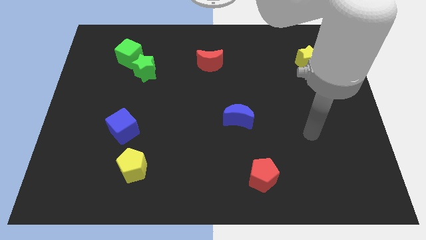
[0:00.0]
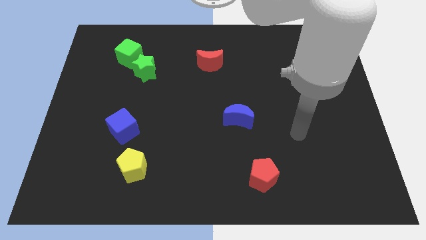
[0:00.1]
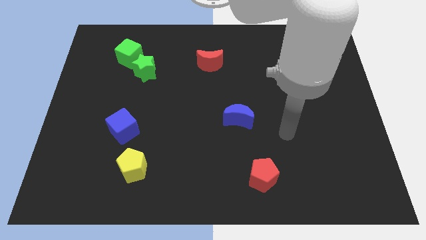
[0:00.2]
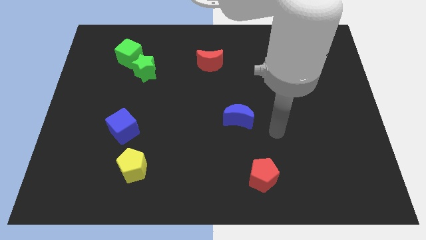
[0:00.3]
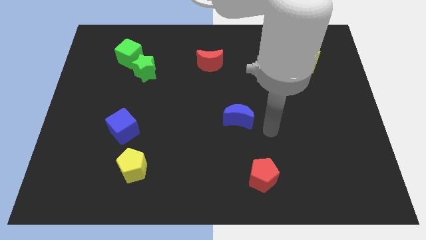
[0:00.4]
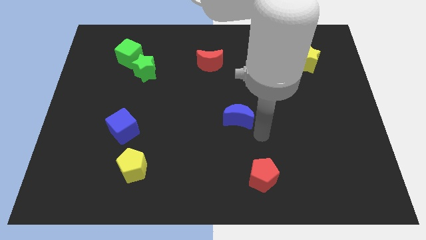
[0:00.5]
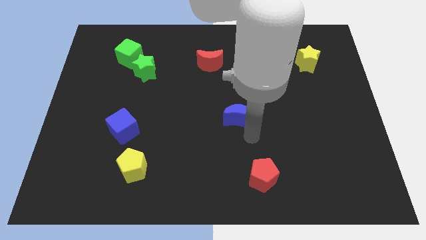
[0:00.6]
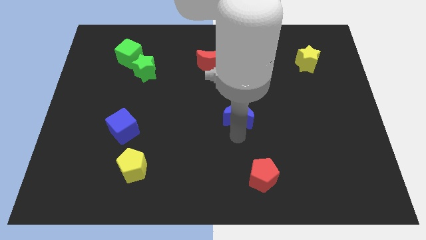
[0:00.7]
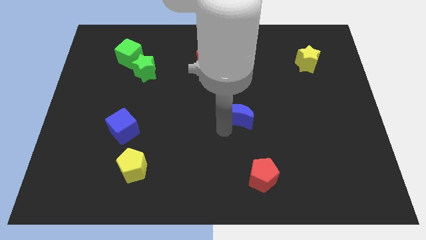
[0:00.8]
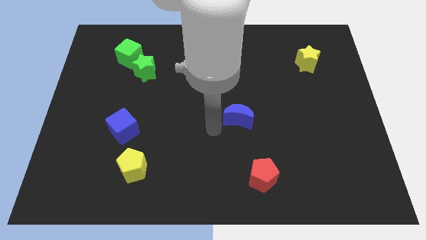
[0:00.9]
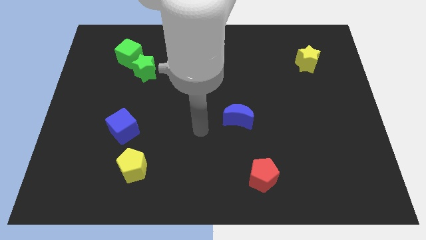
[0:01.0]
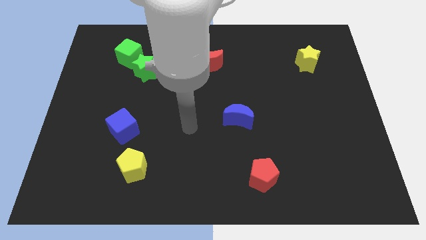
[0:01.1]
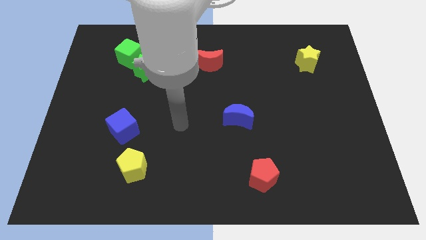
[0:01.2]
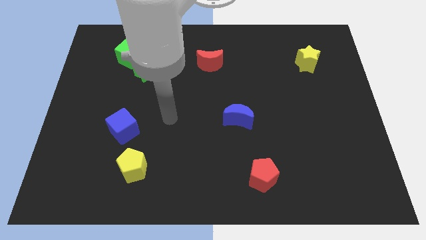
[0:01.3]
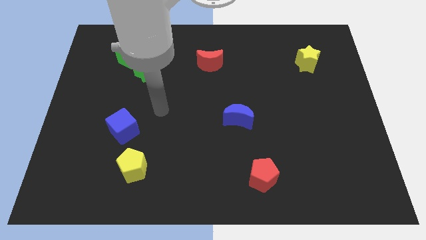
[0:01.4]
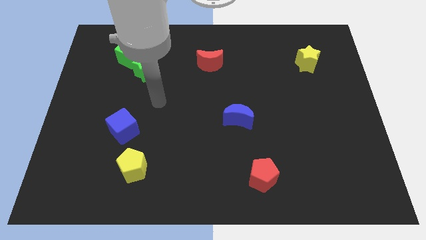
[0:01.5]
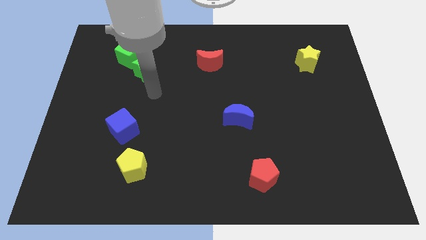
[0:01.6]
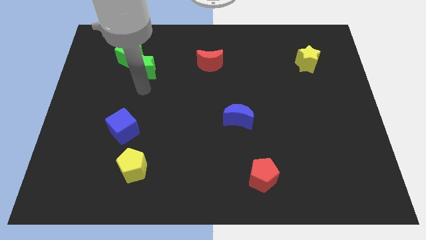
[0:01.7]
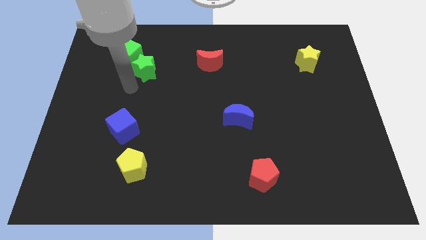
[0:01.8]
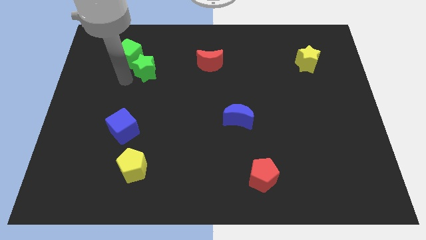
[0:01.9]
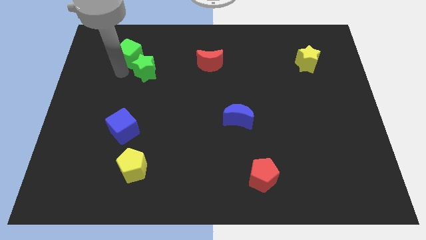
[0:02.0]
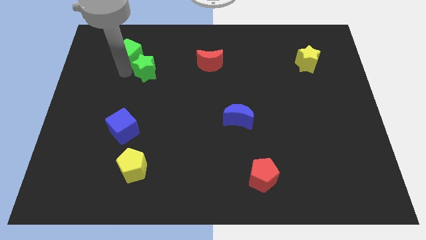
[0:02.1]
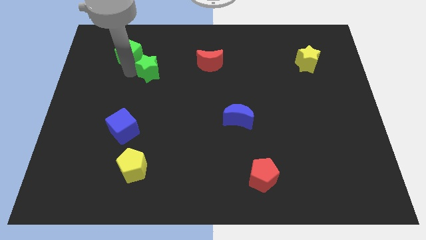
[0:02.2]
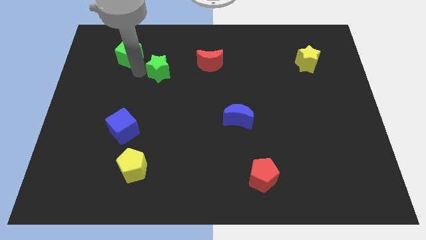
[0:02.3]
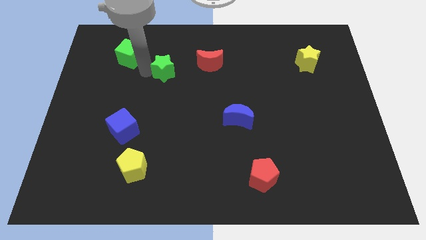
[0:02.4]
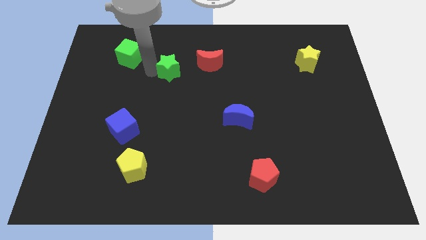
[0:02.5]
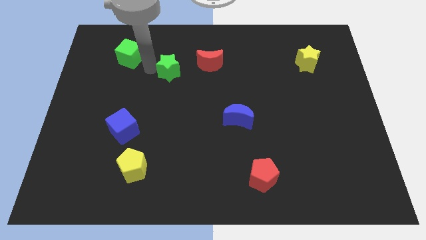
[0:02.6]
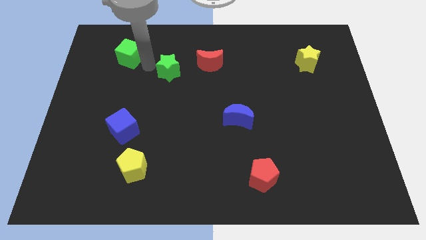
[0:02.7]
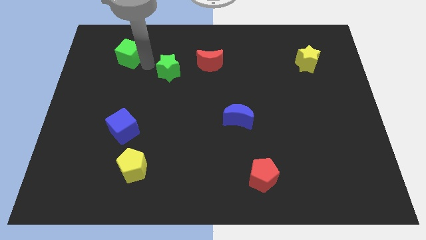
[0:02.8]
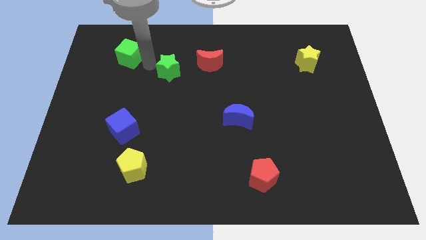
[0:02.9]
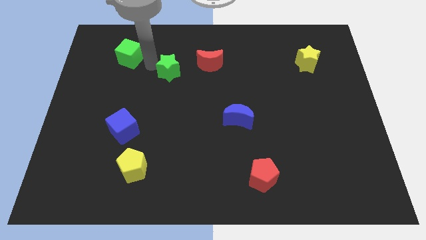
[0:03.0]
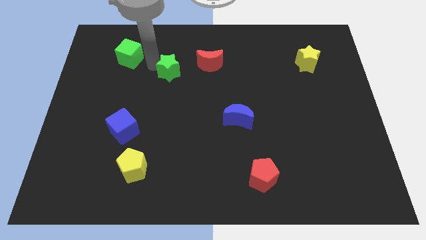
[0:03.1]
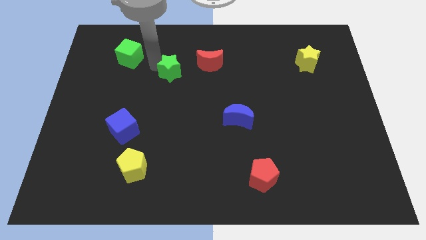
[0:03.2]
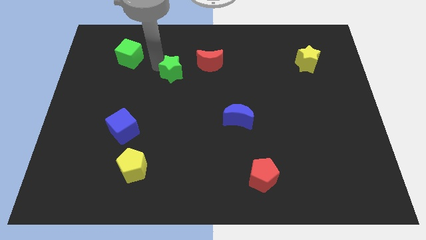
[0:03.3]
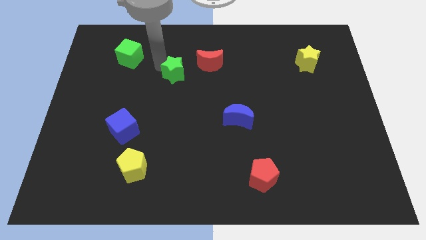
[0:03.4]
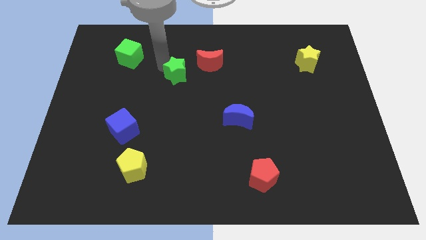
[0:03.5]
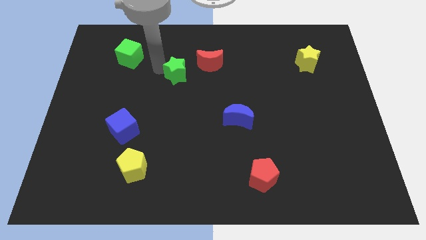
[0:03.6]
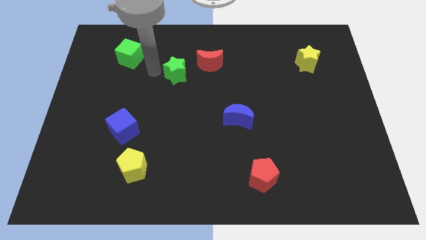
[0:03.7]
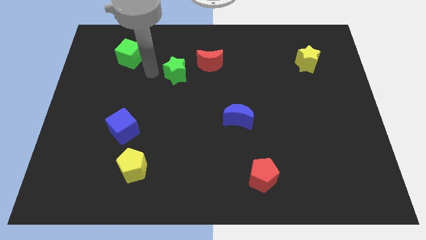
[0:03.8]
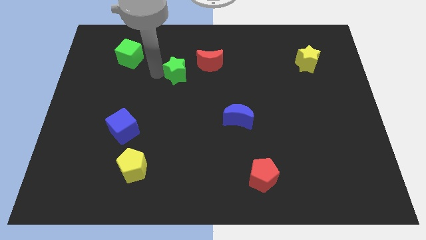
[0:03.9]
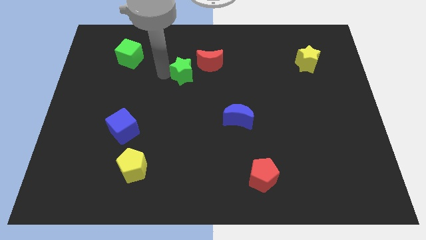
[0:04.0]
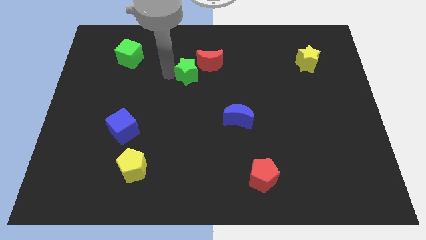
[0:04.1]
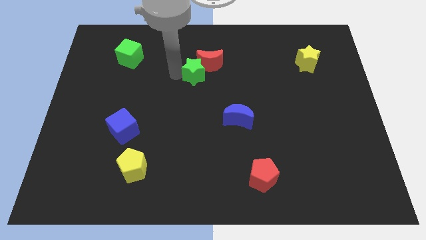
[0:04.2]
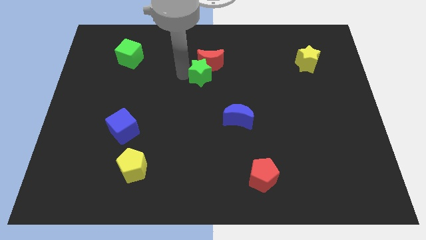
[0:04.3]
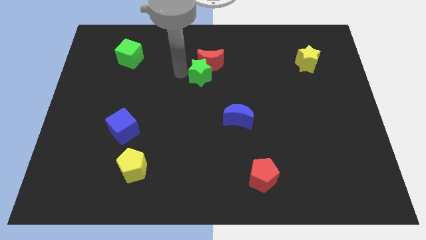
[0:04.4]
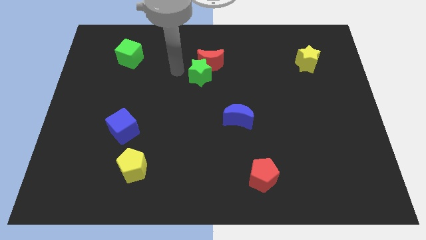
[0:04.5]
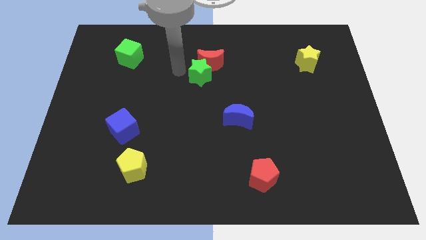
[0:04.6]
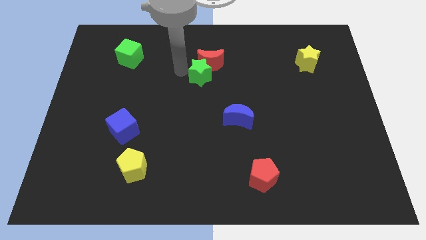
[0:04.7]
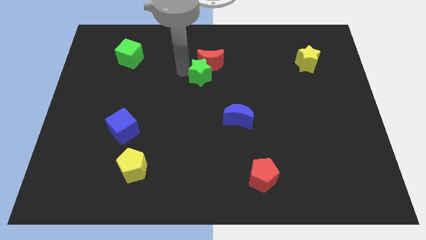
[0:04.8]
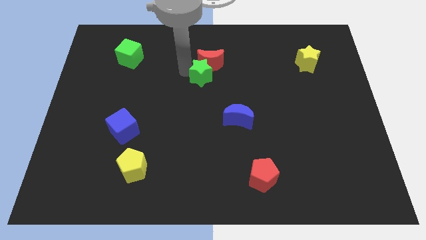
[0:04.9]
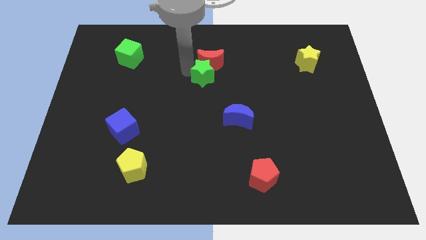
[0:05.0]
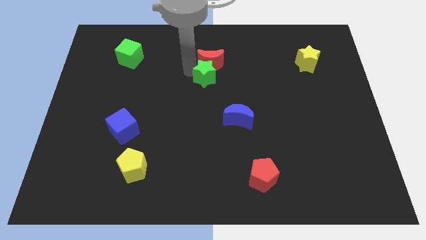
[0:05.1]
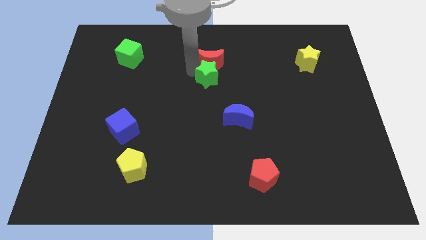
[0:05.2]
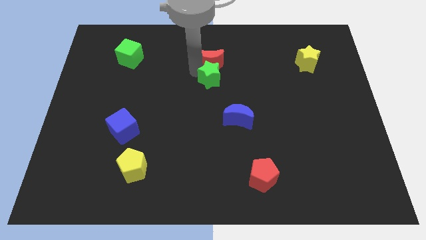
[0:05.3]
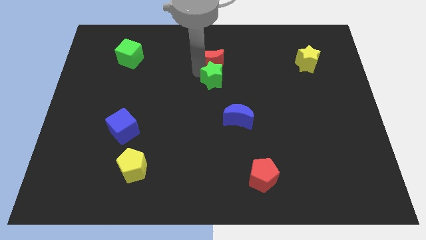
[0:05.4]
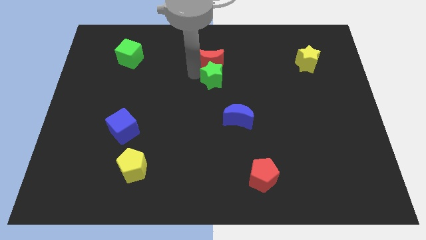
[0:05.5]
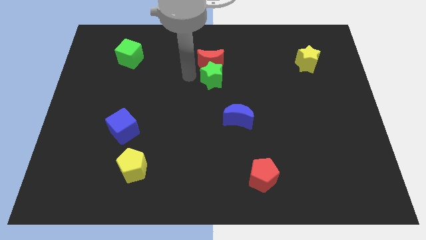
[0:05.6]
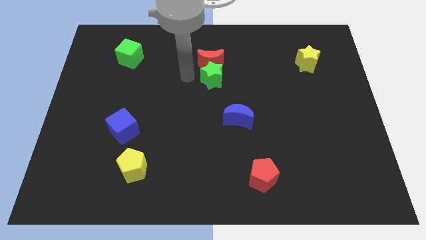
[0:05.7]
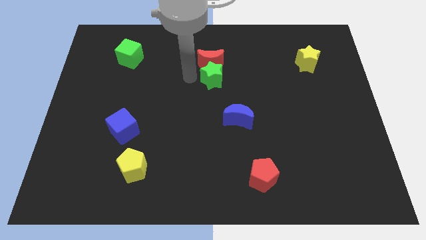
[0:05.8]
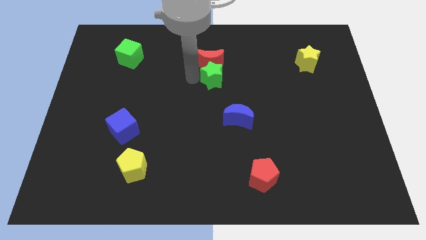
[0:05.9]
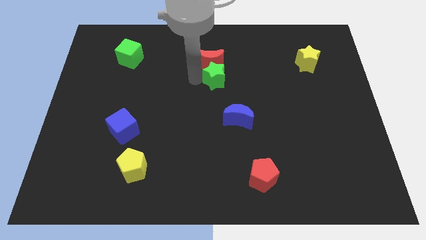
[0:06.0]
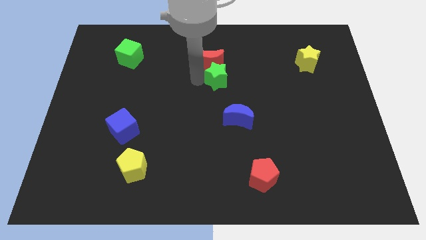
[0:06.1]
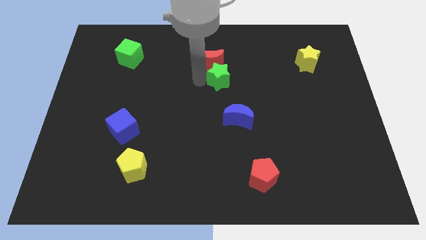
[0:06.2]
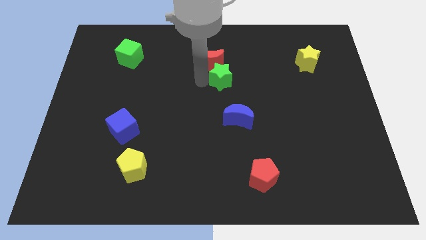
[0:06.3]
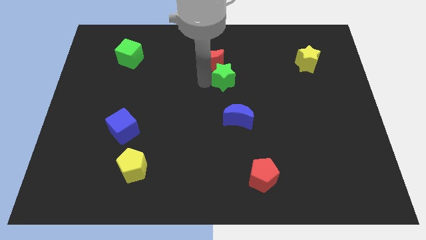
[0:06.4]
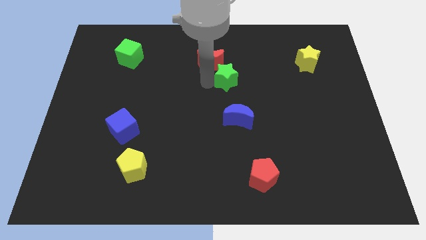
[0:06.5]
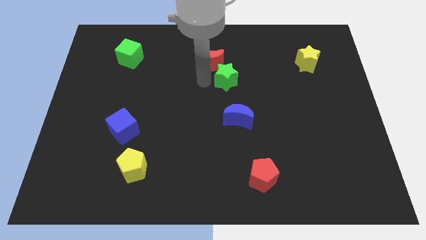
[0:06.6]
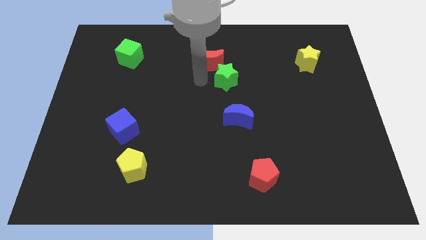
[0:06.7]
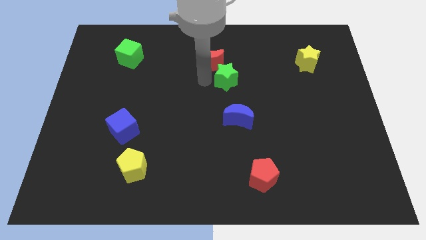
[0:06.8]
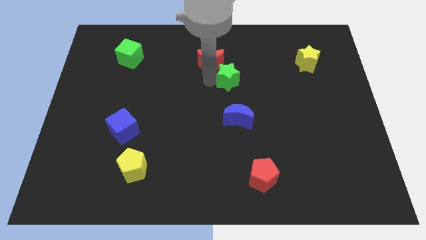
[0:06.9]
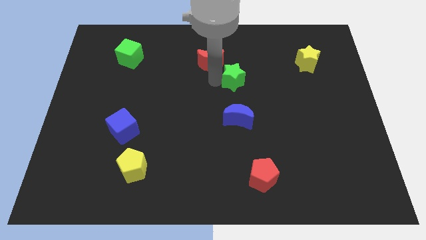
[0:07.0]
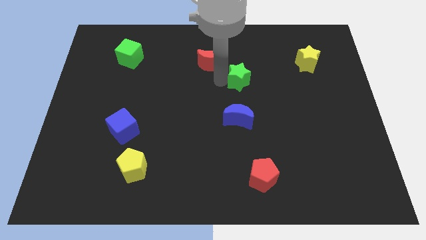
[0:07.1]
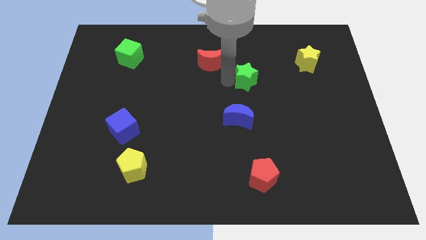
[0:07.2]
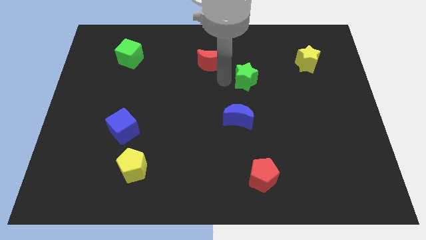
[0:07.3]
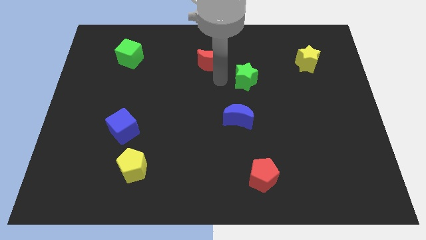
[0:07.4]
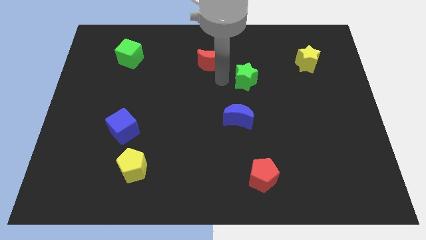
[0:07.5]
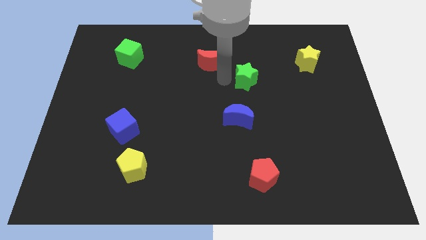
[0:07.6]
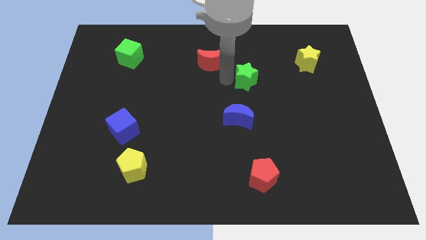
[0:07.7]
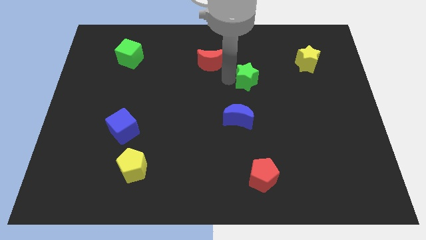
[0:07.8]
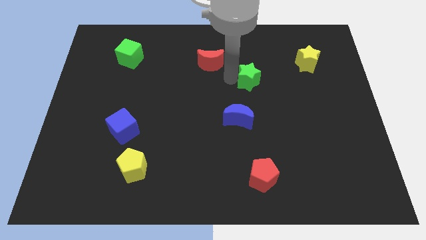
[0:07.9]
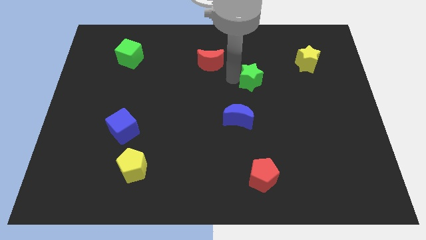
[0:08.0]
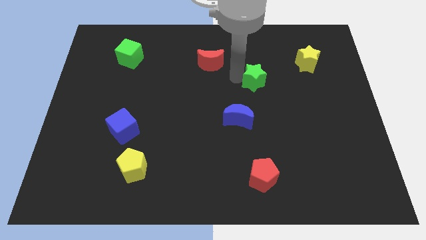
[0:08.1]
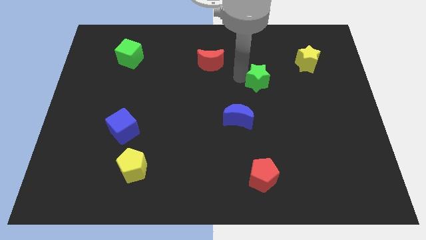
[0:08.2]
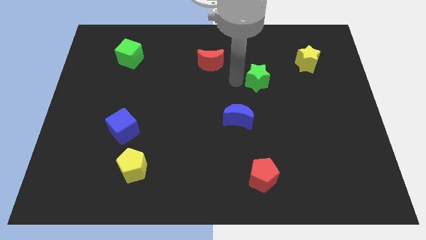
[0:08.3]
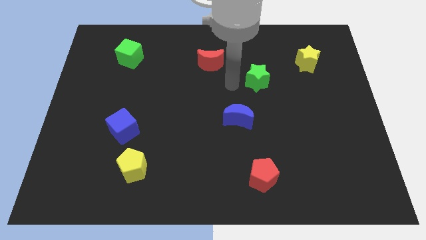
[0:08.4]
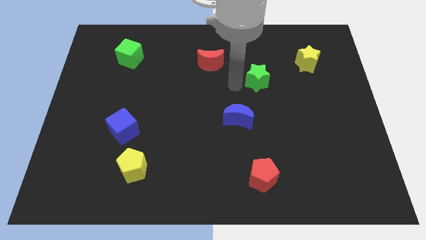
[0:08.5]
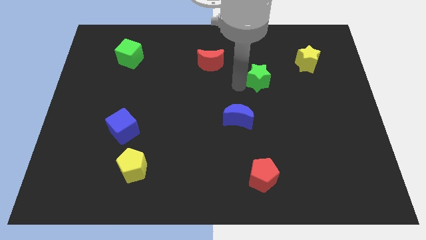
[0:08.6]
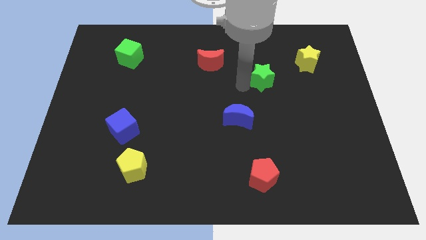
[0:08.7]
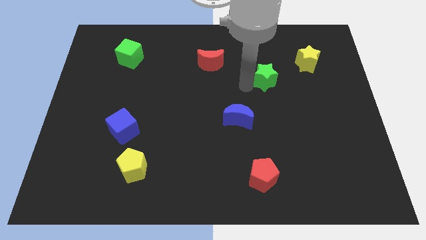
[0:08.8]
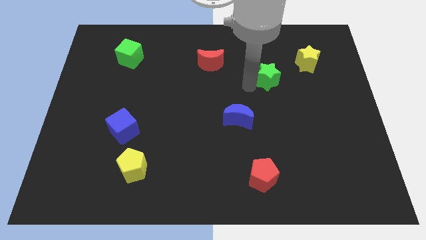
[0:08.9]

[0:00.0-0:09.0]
slide the green star to the bottom left of the yellow star
